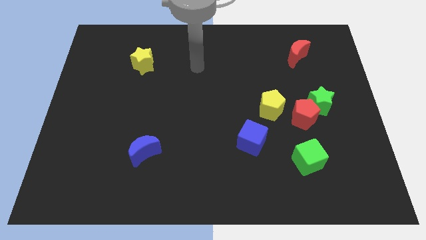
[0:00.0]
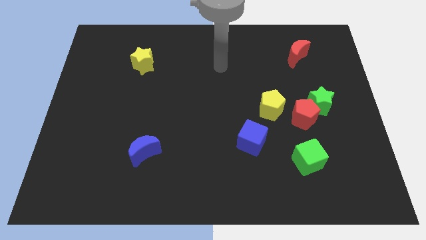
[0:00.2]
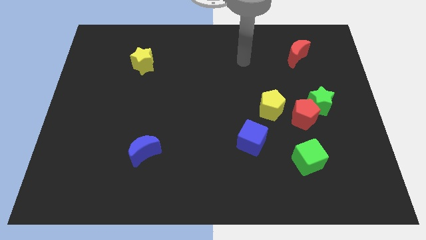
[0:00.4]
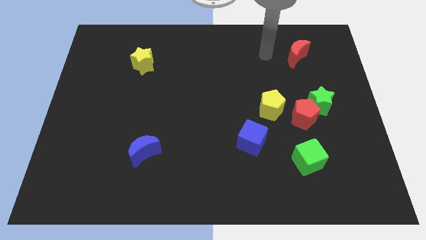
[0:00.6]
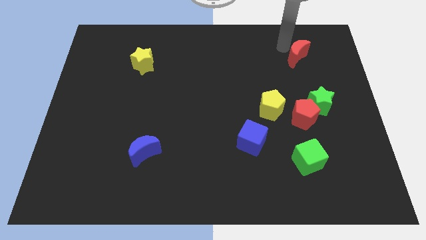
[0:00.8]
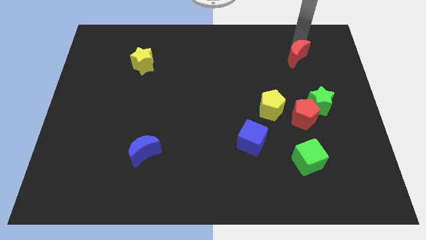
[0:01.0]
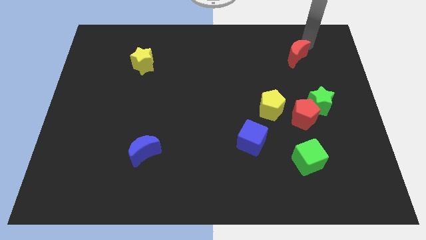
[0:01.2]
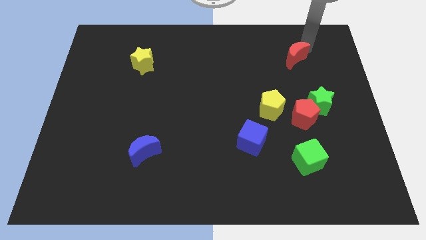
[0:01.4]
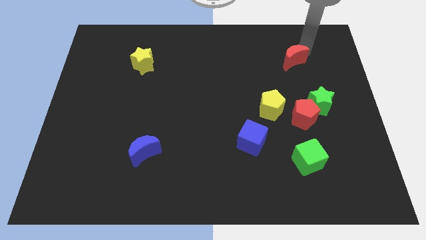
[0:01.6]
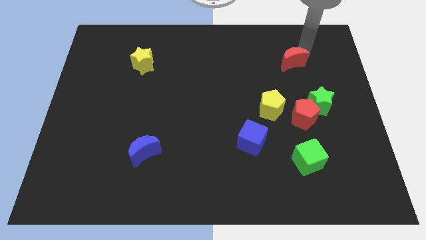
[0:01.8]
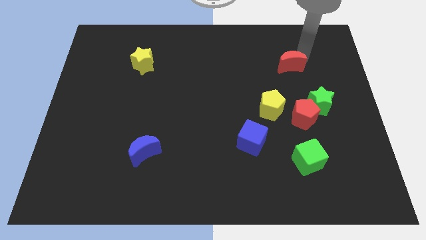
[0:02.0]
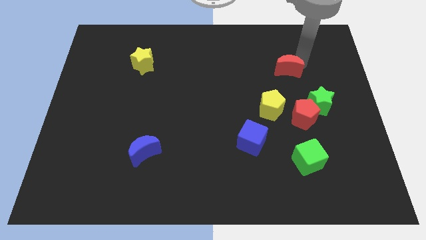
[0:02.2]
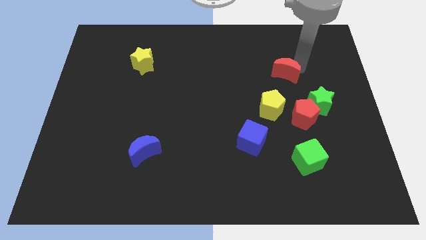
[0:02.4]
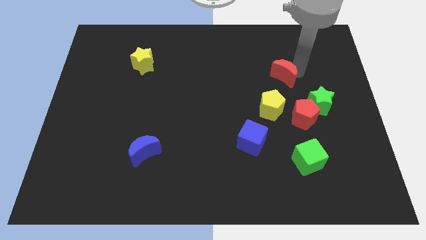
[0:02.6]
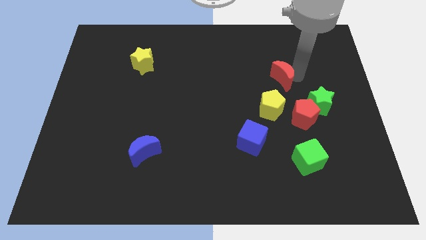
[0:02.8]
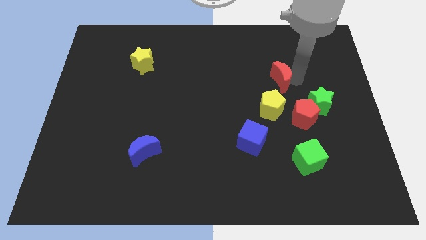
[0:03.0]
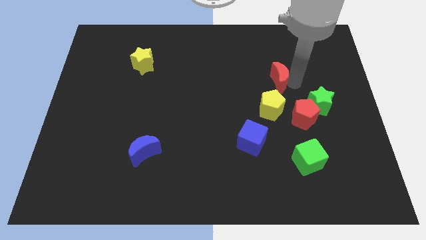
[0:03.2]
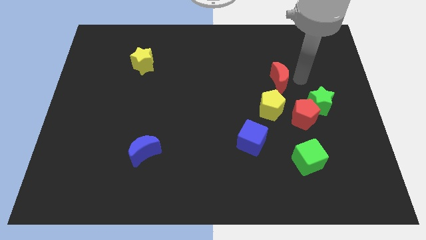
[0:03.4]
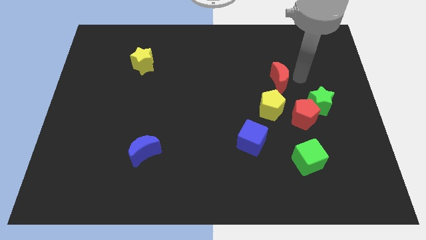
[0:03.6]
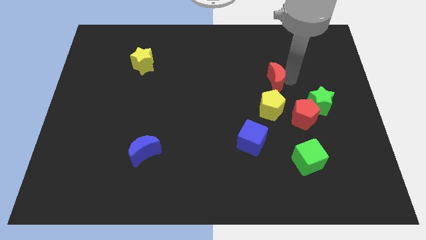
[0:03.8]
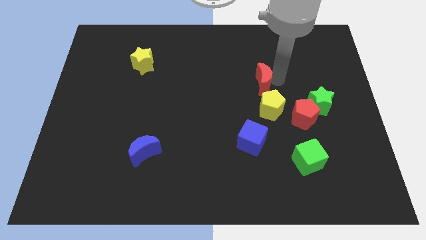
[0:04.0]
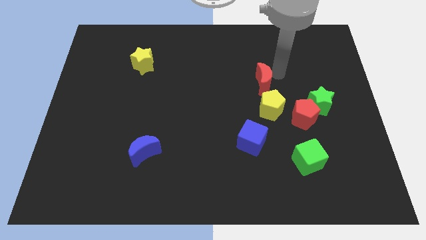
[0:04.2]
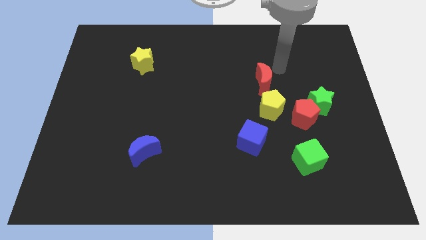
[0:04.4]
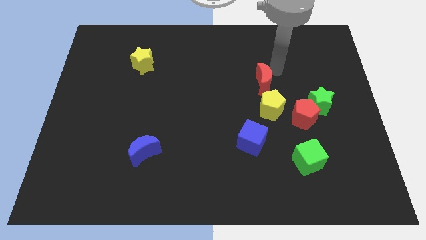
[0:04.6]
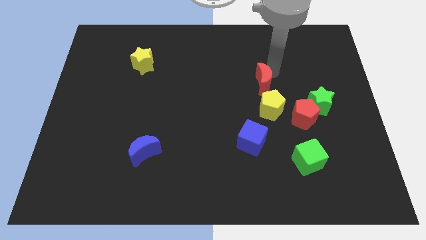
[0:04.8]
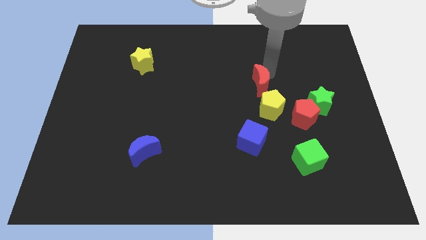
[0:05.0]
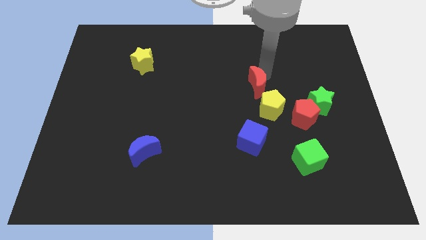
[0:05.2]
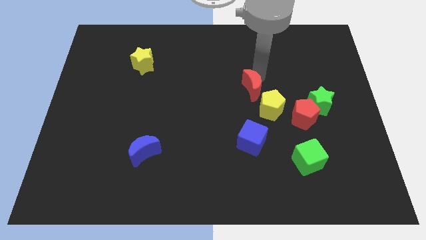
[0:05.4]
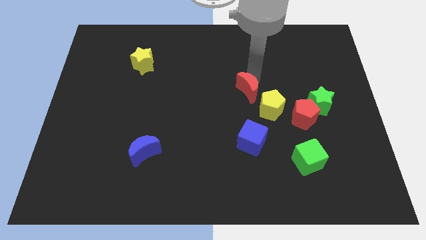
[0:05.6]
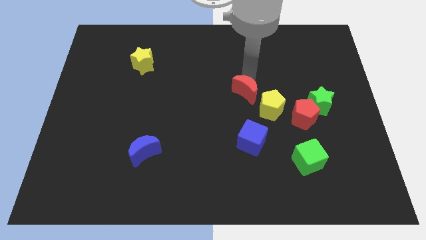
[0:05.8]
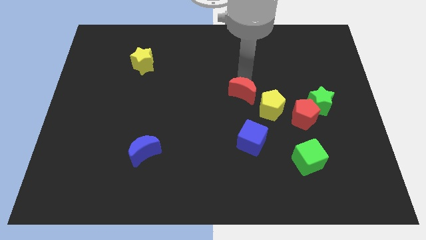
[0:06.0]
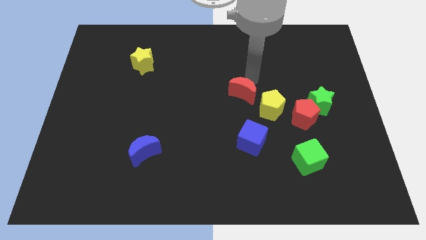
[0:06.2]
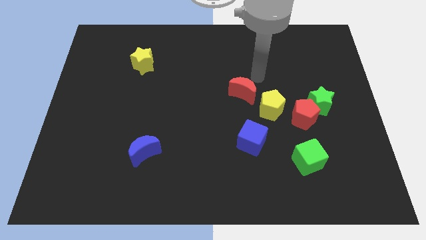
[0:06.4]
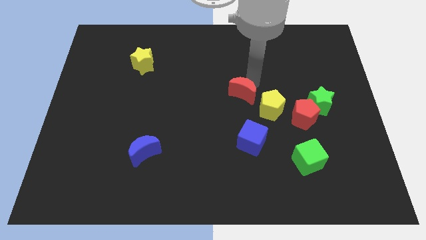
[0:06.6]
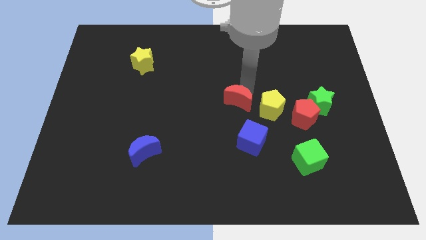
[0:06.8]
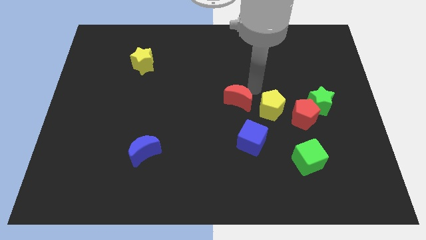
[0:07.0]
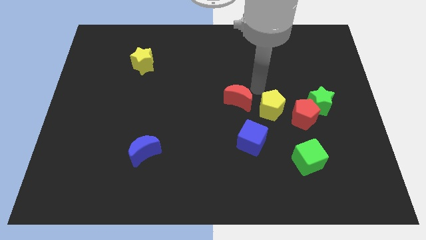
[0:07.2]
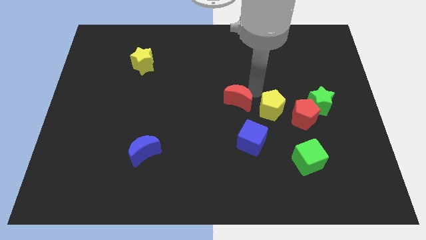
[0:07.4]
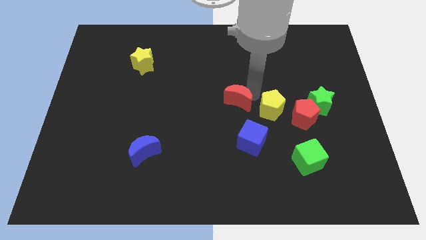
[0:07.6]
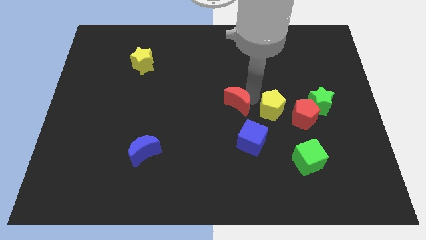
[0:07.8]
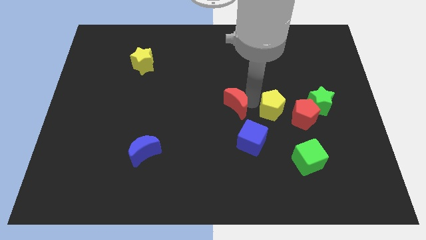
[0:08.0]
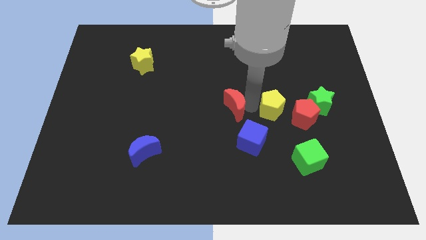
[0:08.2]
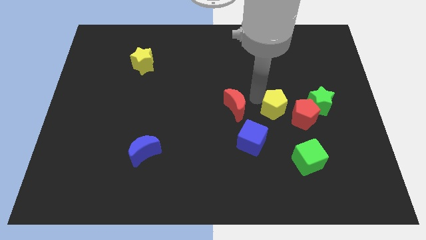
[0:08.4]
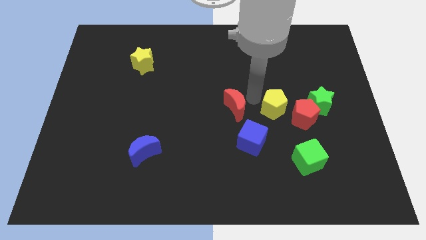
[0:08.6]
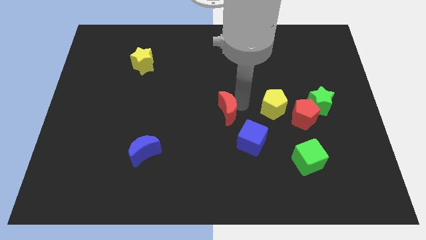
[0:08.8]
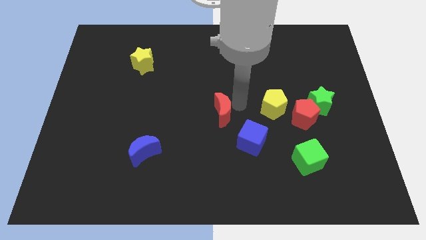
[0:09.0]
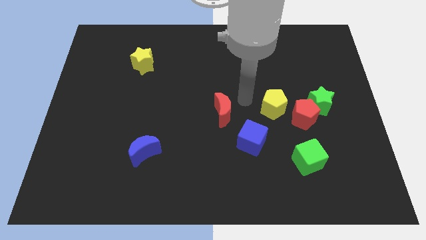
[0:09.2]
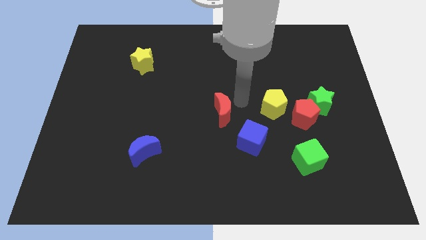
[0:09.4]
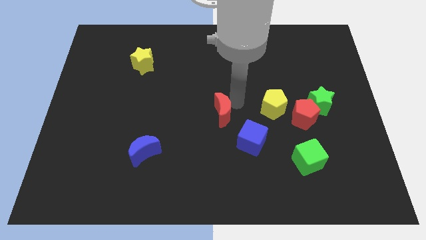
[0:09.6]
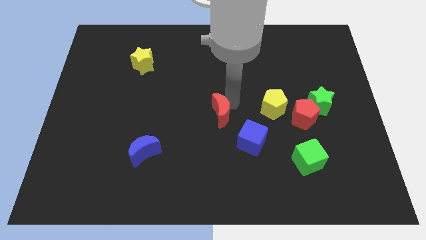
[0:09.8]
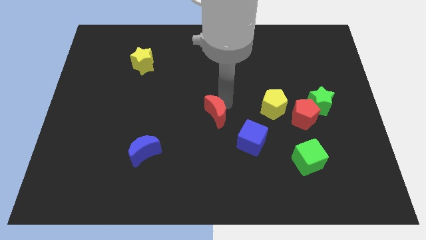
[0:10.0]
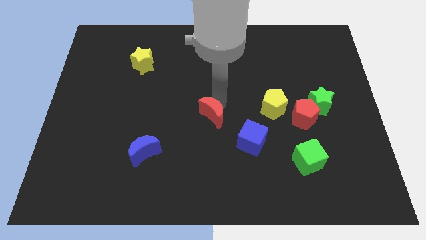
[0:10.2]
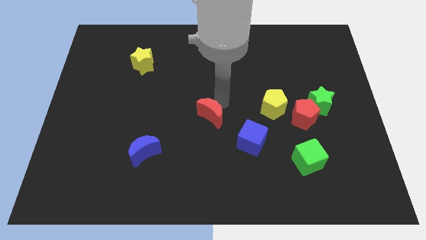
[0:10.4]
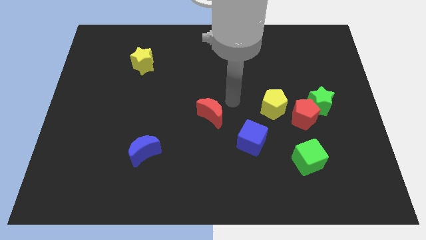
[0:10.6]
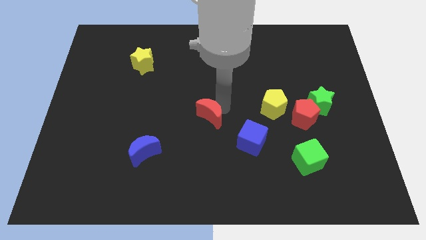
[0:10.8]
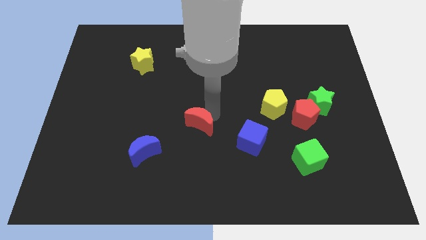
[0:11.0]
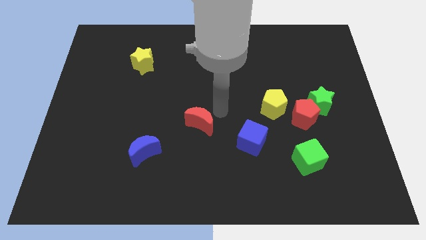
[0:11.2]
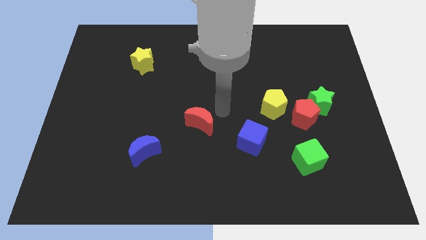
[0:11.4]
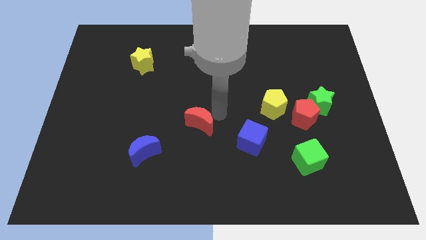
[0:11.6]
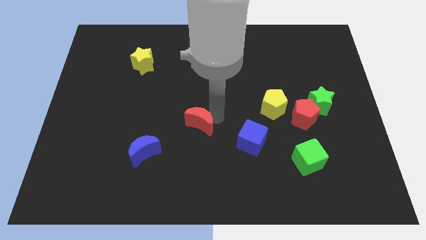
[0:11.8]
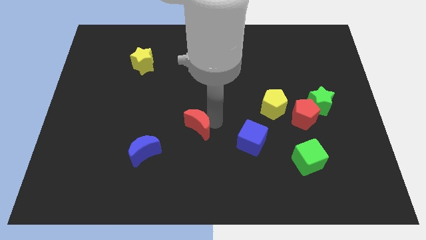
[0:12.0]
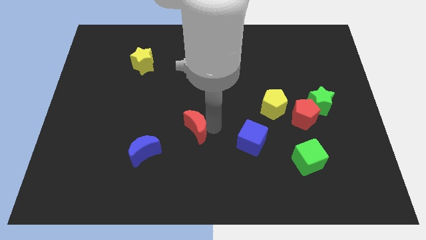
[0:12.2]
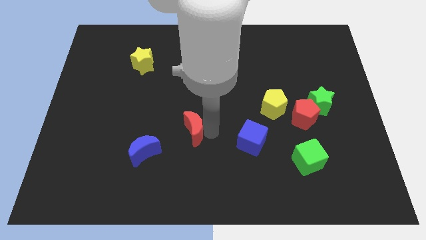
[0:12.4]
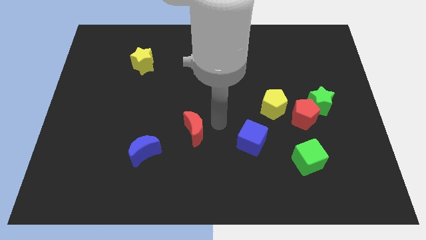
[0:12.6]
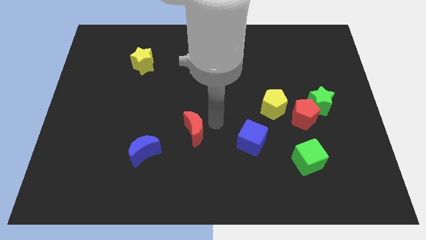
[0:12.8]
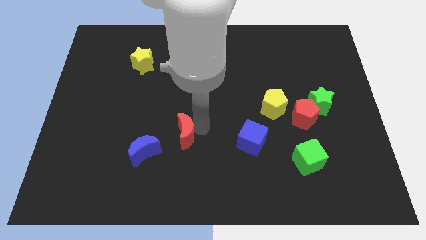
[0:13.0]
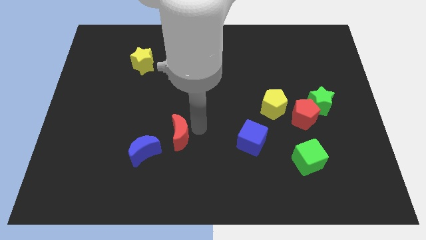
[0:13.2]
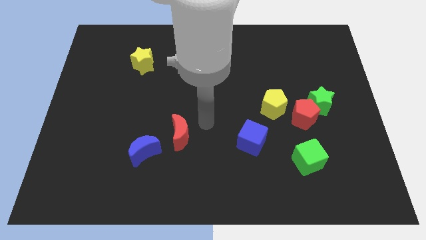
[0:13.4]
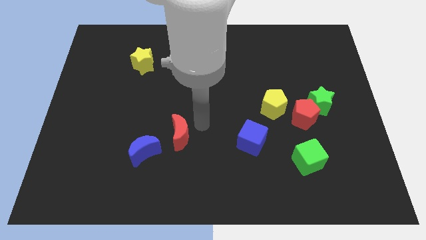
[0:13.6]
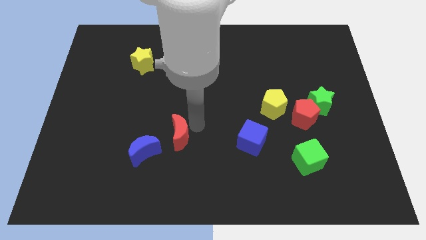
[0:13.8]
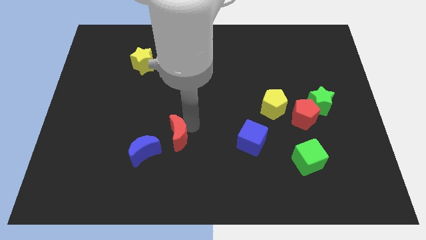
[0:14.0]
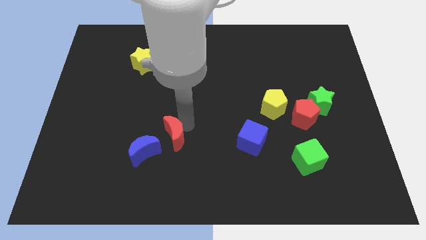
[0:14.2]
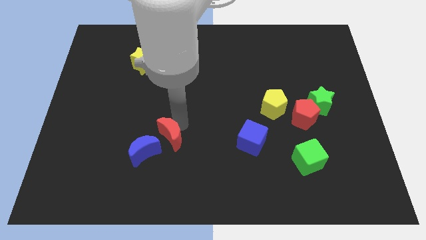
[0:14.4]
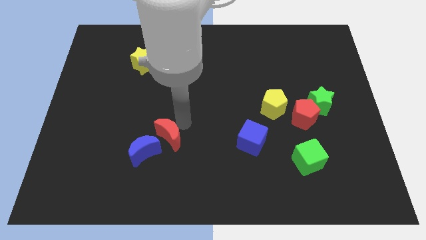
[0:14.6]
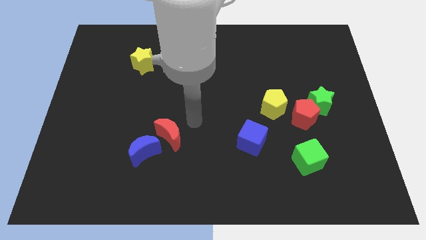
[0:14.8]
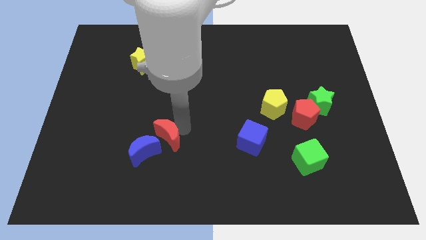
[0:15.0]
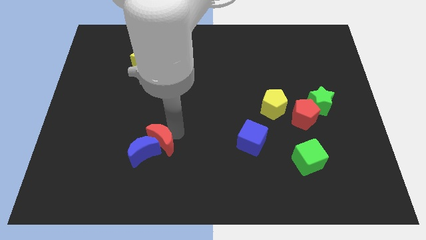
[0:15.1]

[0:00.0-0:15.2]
push the red moon close to the blue moon
